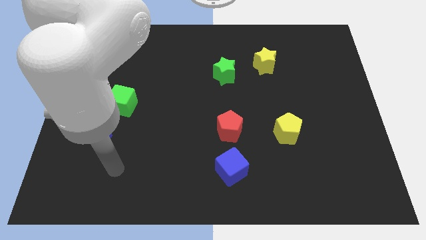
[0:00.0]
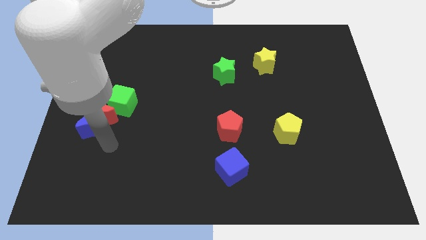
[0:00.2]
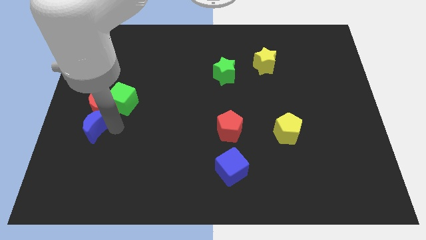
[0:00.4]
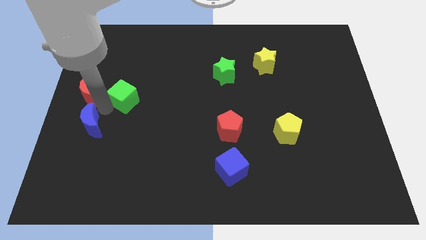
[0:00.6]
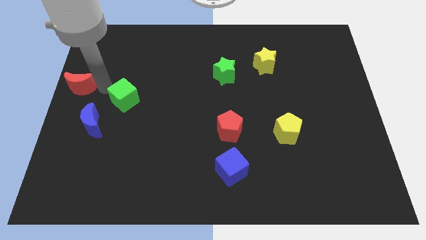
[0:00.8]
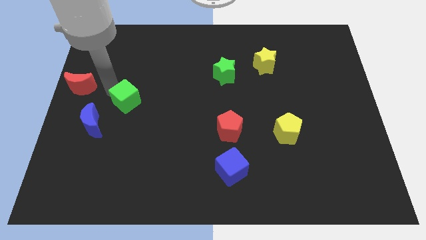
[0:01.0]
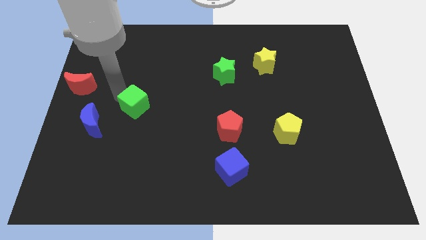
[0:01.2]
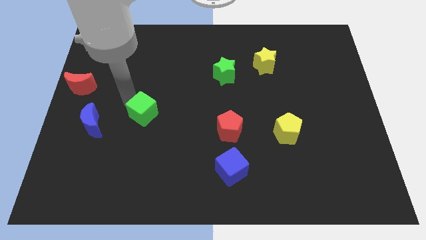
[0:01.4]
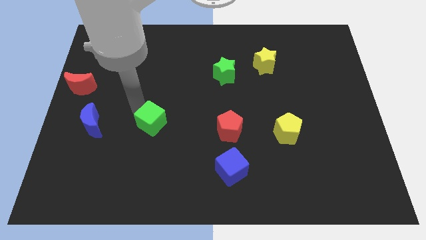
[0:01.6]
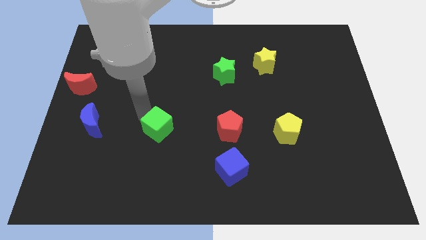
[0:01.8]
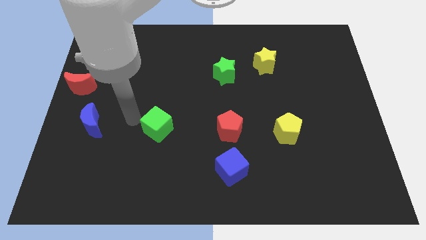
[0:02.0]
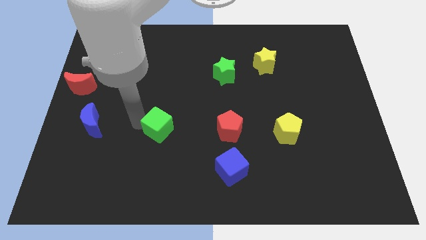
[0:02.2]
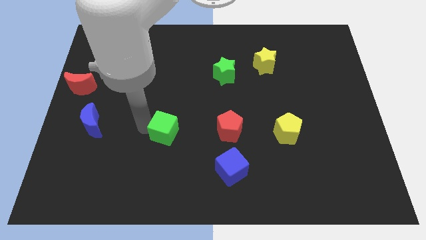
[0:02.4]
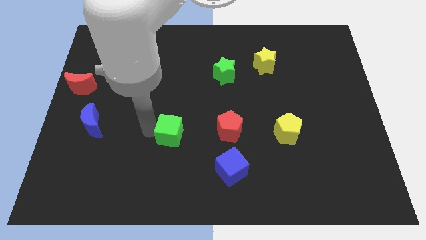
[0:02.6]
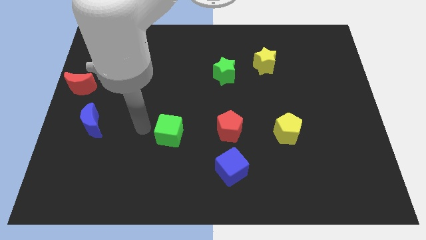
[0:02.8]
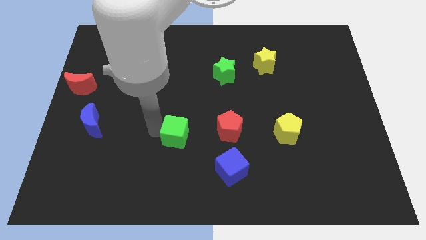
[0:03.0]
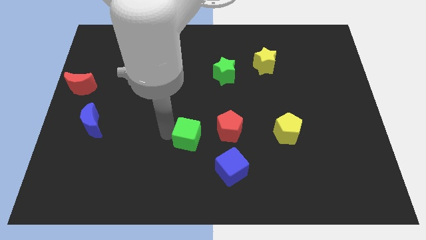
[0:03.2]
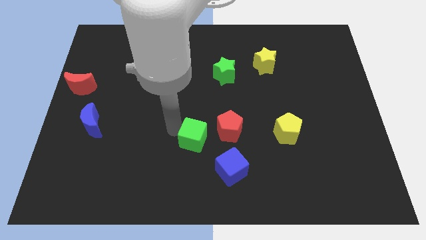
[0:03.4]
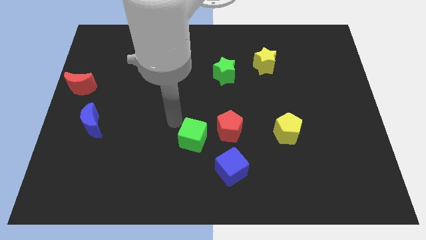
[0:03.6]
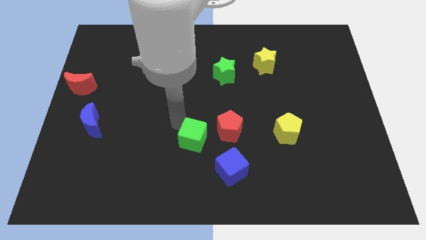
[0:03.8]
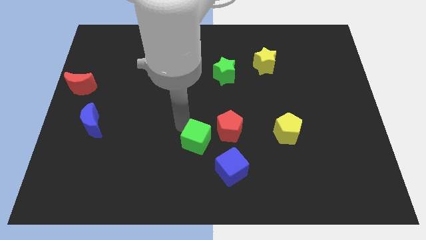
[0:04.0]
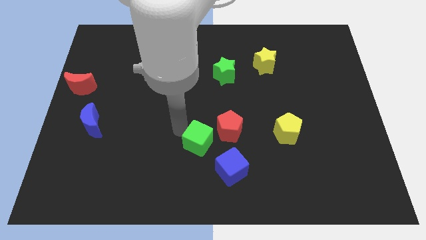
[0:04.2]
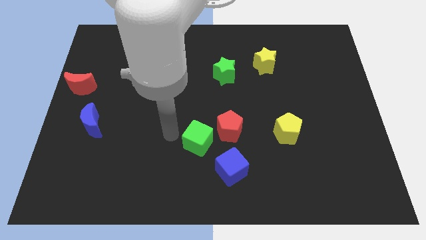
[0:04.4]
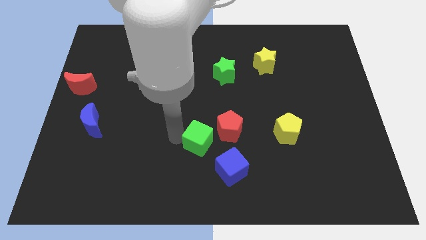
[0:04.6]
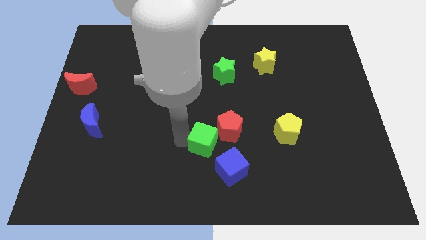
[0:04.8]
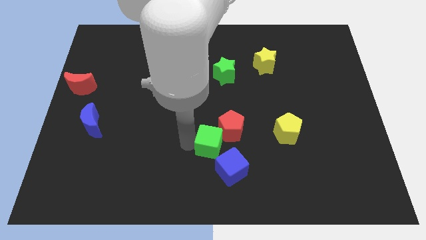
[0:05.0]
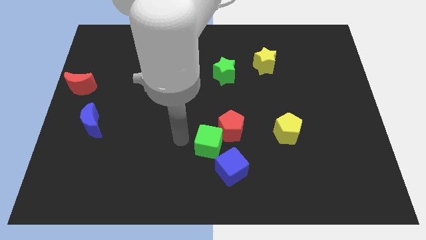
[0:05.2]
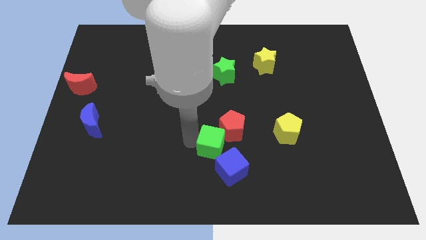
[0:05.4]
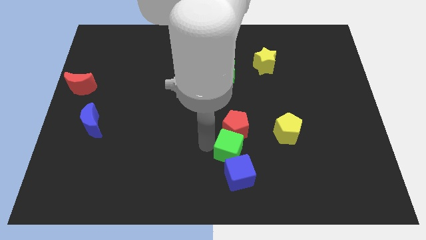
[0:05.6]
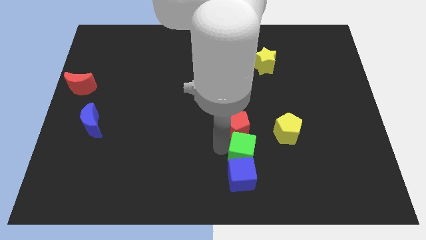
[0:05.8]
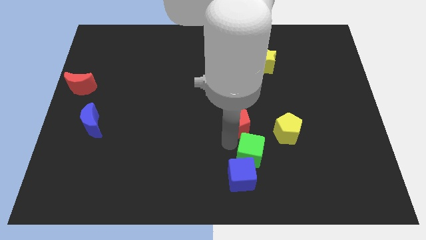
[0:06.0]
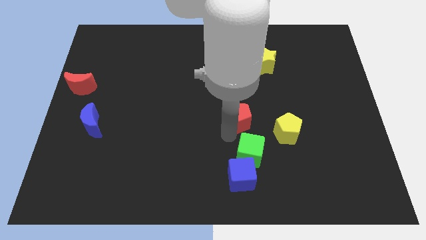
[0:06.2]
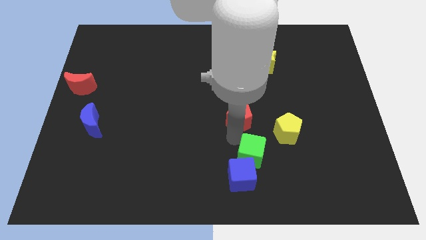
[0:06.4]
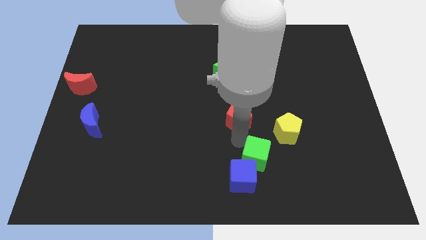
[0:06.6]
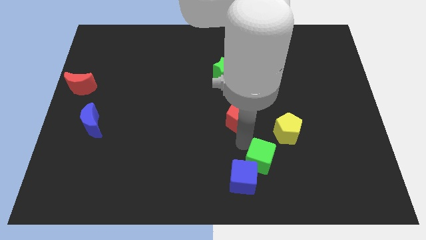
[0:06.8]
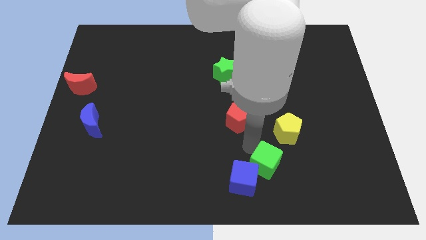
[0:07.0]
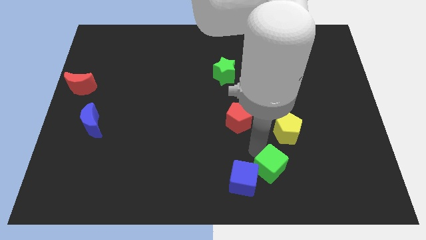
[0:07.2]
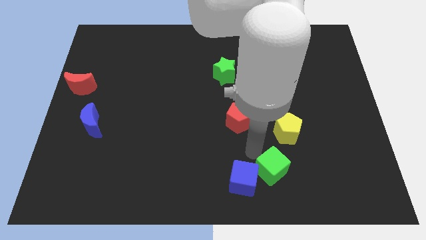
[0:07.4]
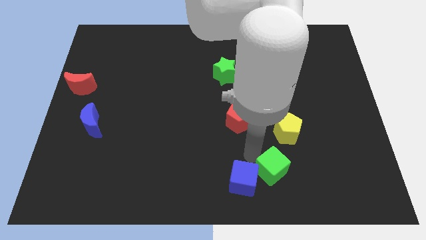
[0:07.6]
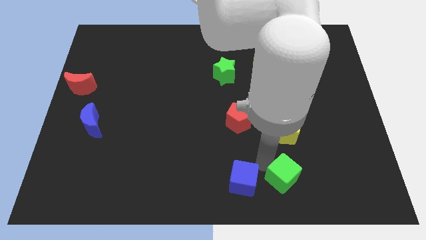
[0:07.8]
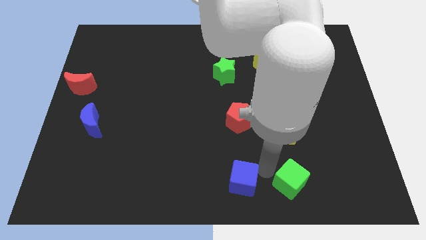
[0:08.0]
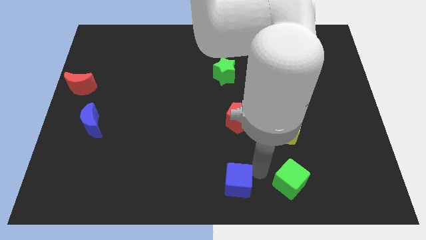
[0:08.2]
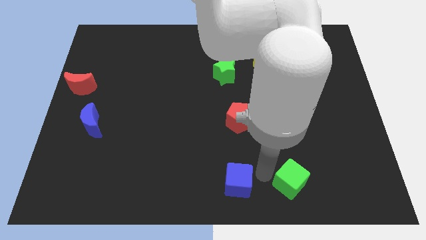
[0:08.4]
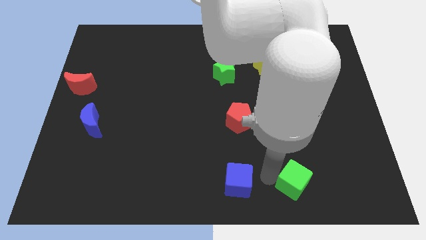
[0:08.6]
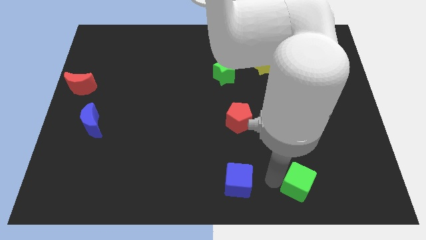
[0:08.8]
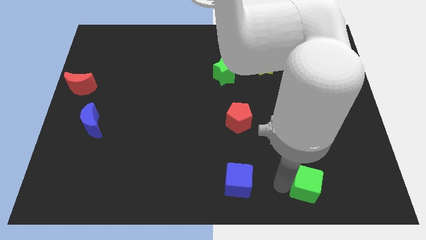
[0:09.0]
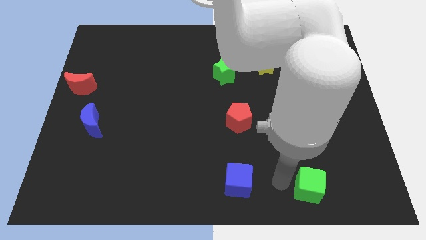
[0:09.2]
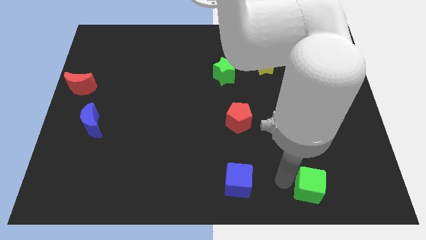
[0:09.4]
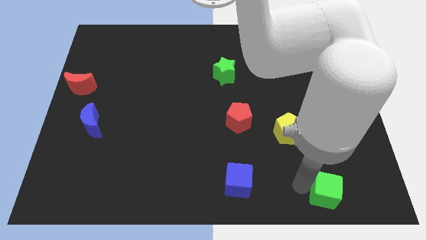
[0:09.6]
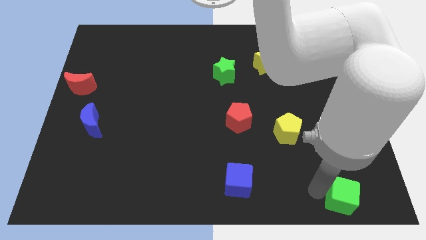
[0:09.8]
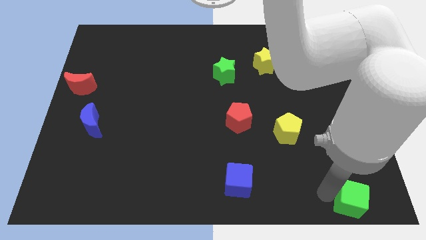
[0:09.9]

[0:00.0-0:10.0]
push the green cube to the bottom right
